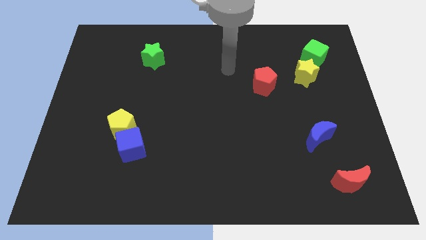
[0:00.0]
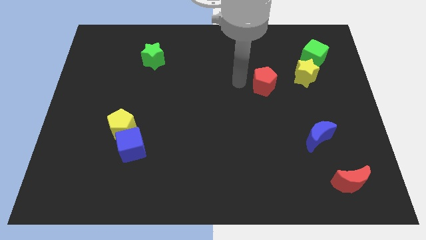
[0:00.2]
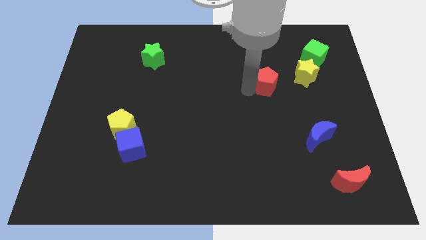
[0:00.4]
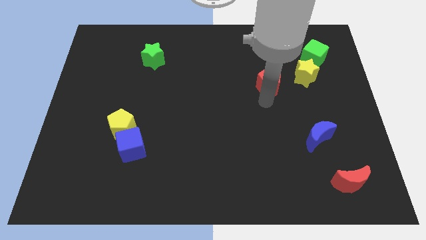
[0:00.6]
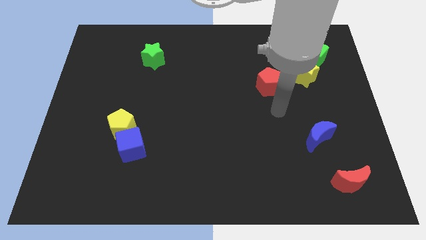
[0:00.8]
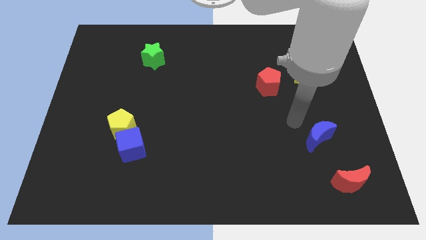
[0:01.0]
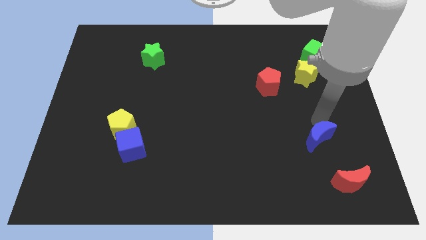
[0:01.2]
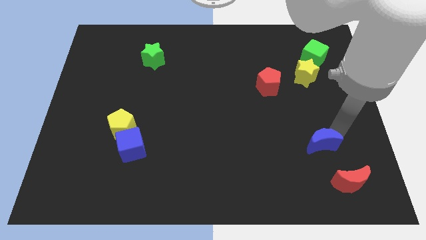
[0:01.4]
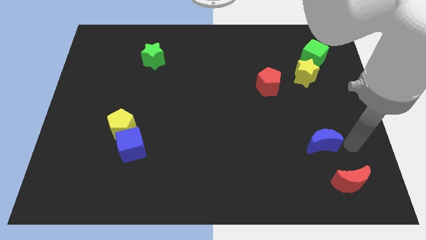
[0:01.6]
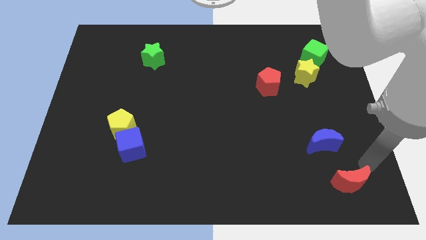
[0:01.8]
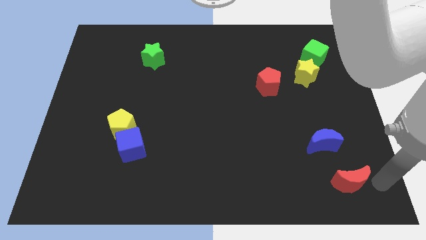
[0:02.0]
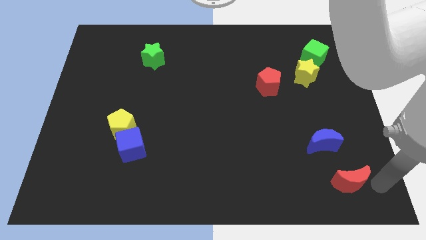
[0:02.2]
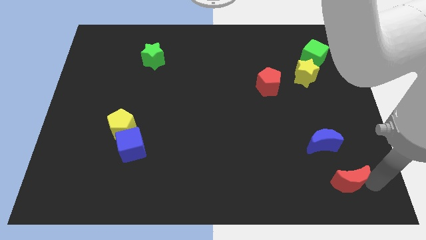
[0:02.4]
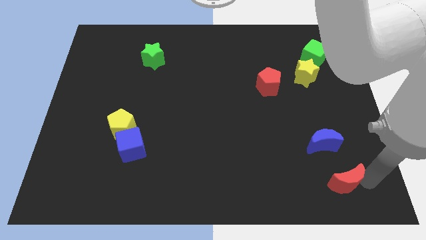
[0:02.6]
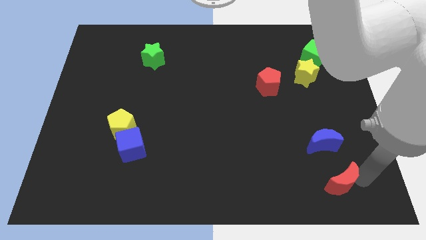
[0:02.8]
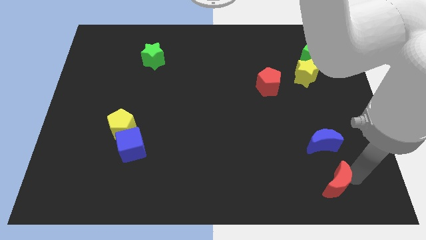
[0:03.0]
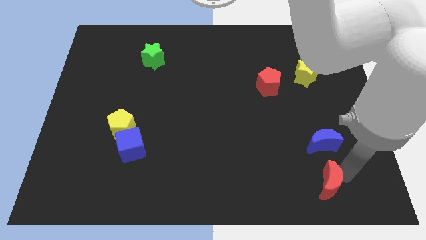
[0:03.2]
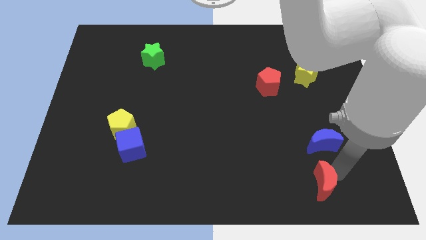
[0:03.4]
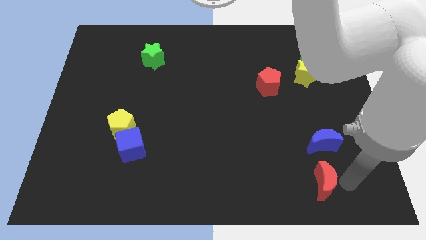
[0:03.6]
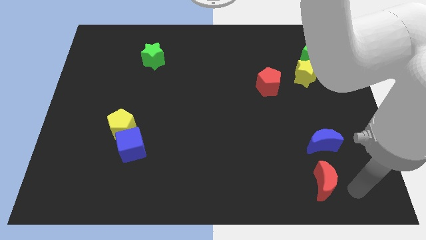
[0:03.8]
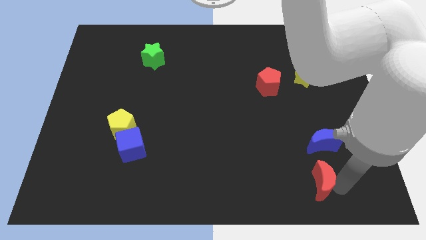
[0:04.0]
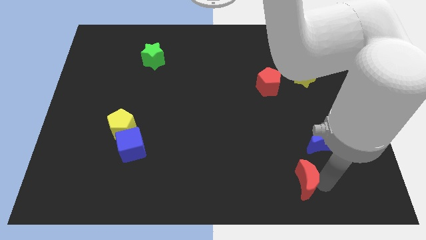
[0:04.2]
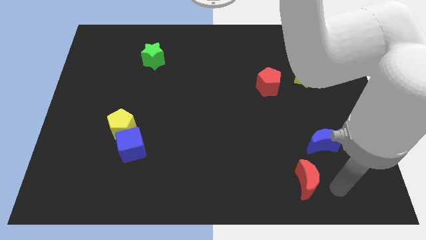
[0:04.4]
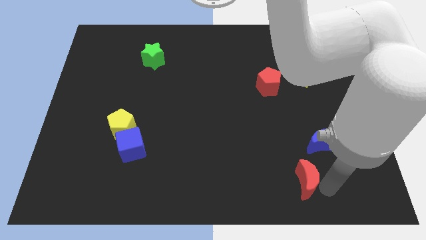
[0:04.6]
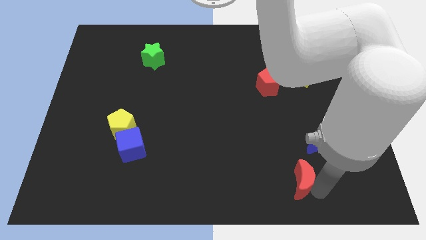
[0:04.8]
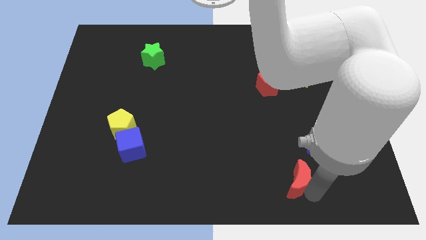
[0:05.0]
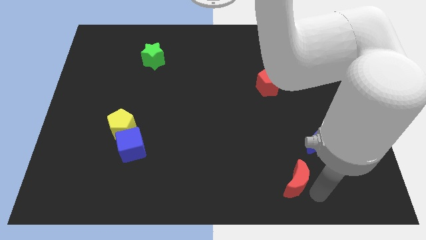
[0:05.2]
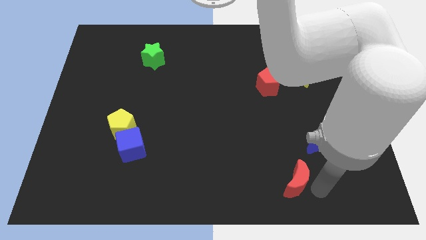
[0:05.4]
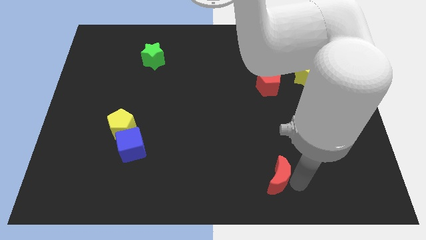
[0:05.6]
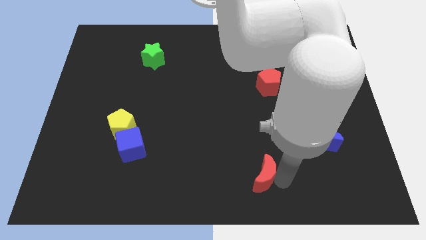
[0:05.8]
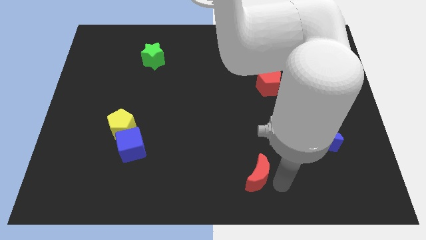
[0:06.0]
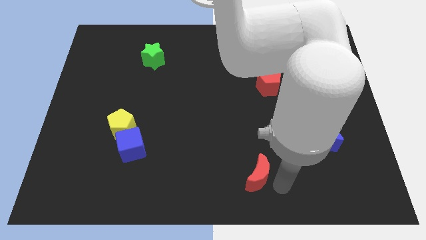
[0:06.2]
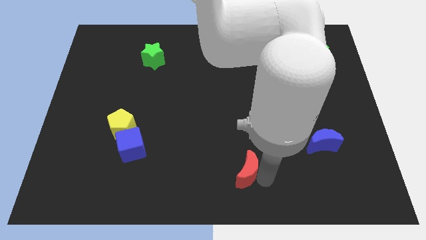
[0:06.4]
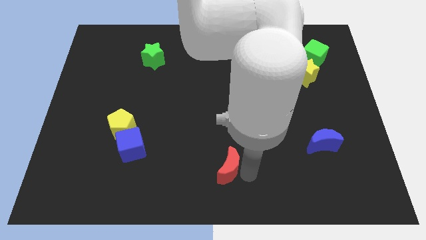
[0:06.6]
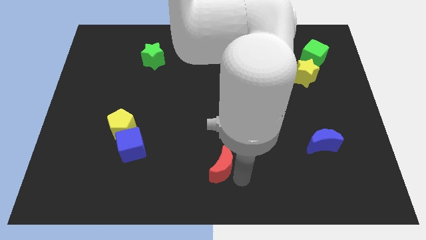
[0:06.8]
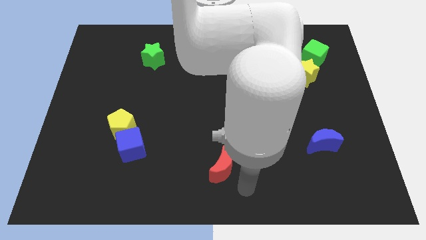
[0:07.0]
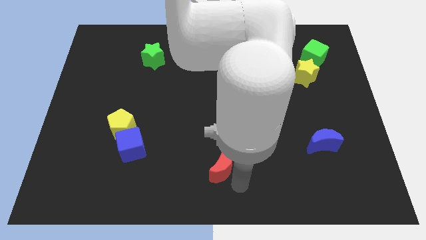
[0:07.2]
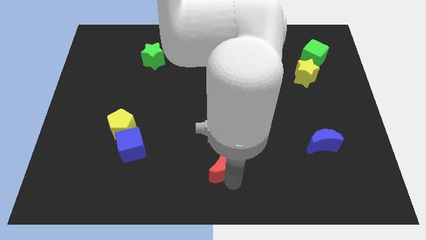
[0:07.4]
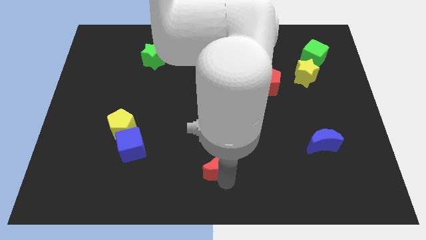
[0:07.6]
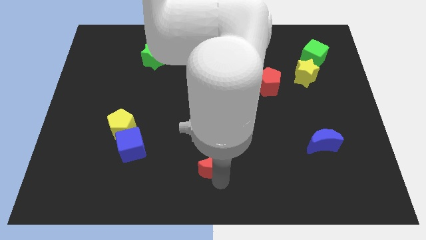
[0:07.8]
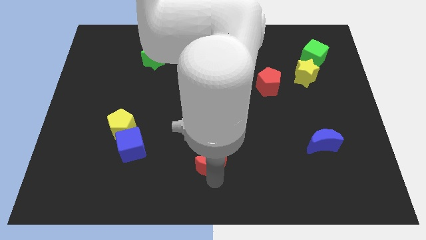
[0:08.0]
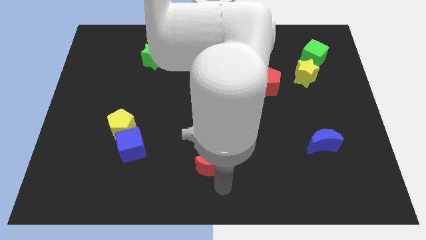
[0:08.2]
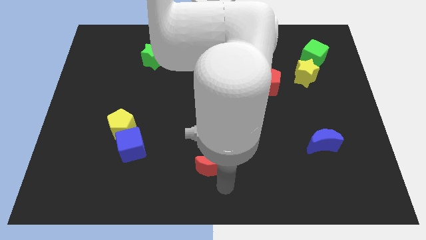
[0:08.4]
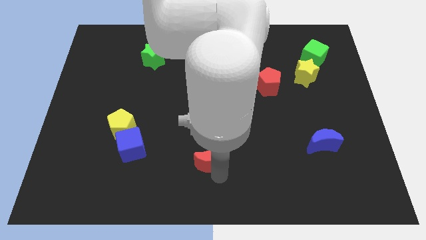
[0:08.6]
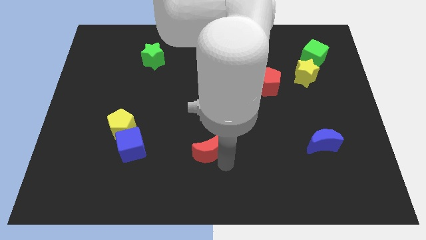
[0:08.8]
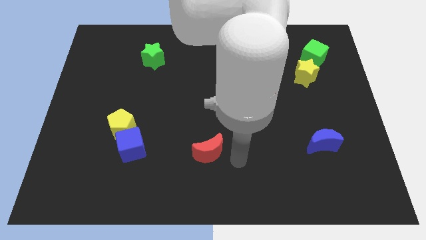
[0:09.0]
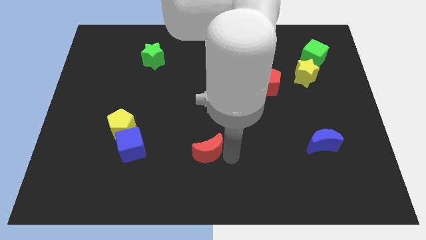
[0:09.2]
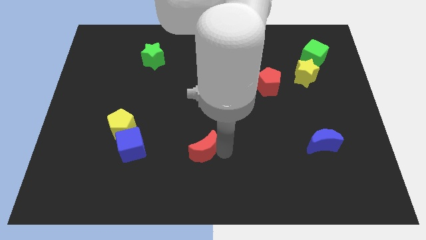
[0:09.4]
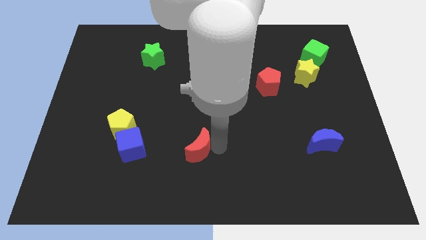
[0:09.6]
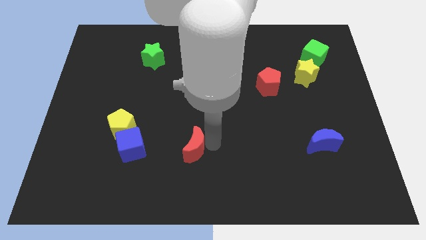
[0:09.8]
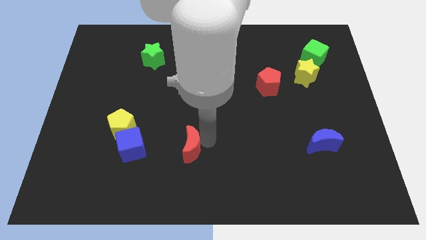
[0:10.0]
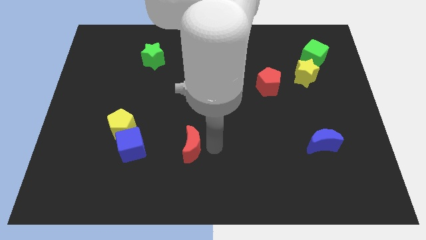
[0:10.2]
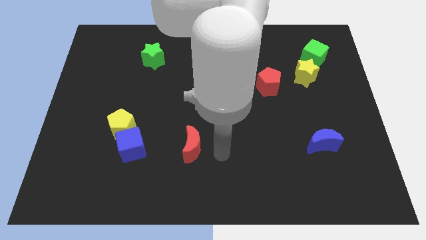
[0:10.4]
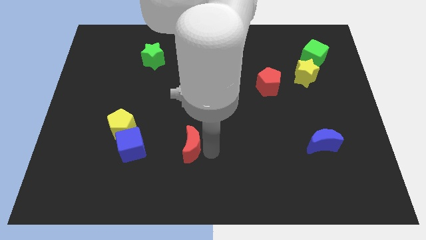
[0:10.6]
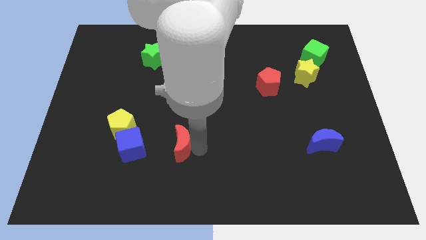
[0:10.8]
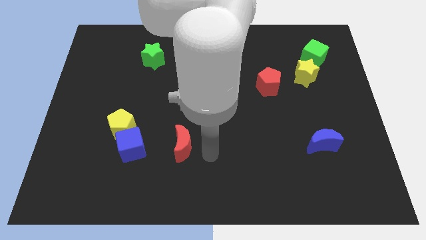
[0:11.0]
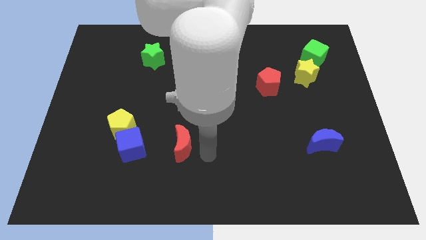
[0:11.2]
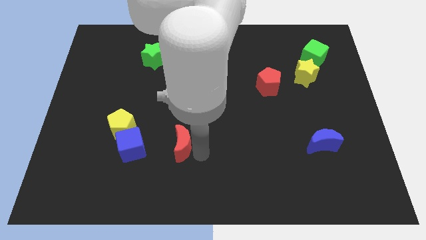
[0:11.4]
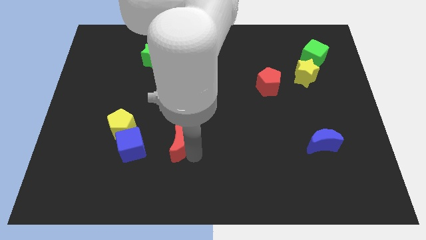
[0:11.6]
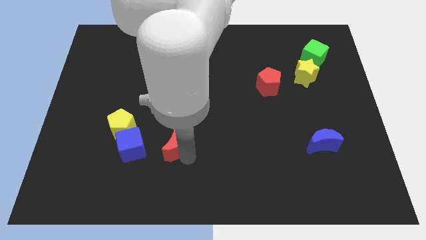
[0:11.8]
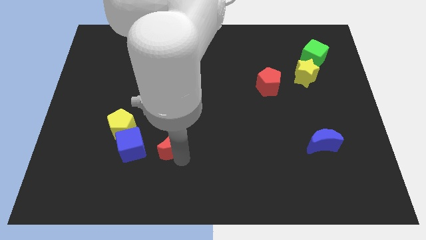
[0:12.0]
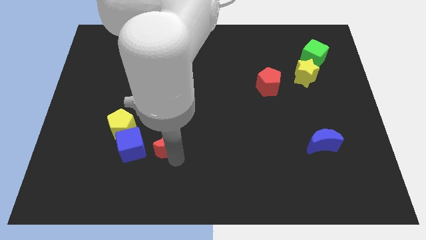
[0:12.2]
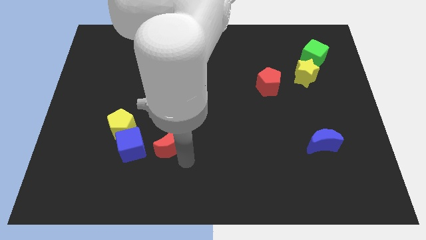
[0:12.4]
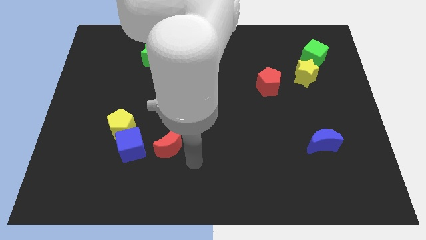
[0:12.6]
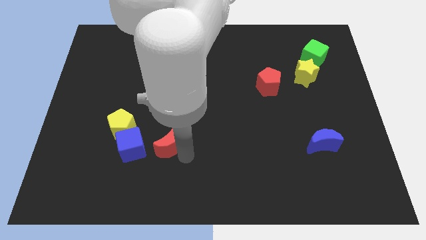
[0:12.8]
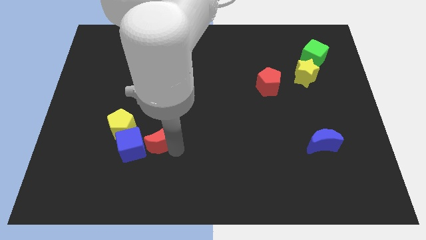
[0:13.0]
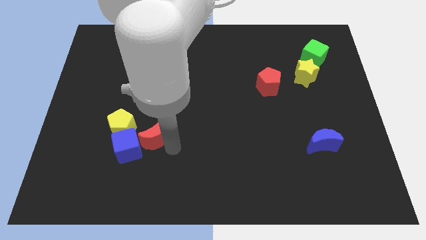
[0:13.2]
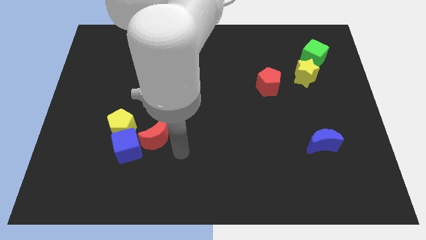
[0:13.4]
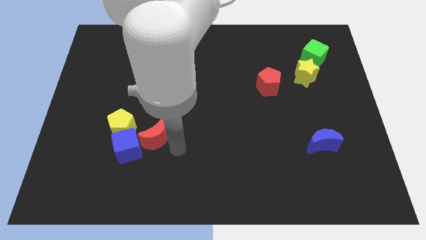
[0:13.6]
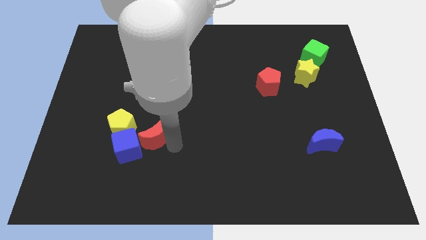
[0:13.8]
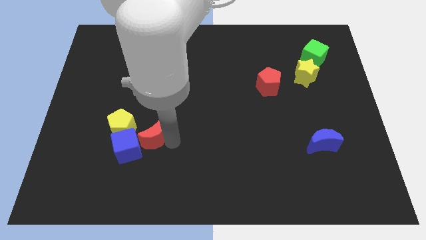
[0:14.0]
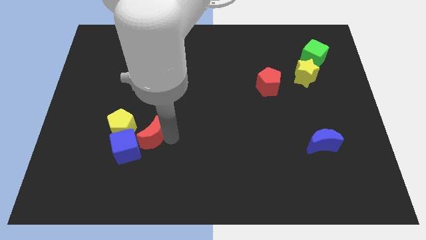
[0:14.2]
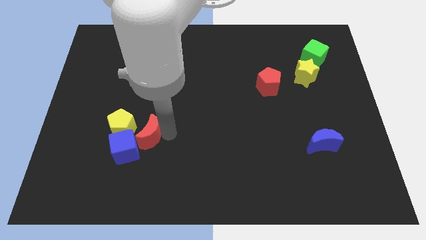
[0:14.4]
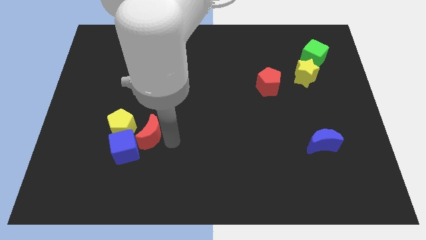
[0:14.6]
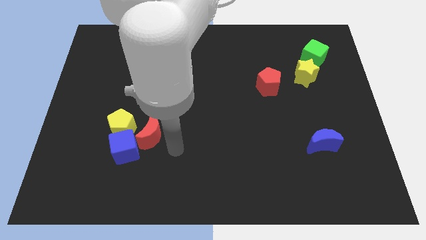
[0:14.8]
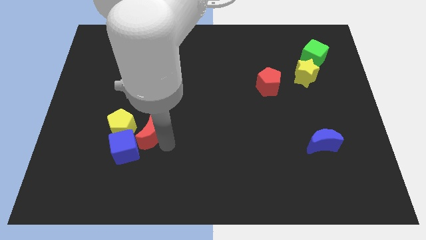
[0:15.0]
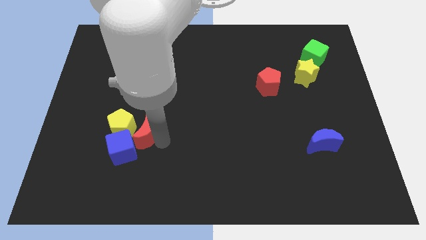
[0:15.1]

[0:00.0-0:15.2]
put the red moon close to the yellow pentagon
